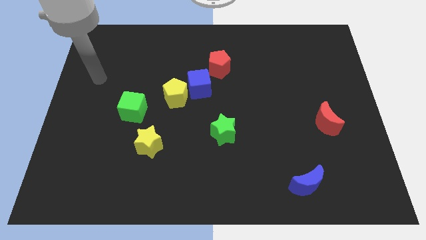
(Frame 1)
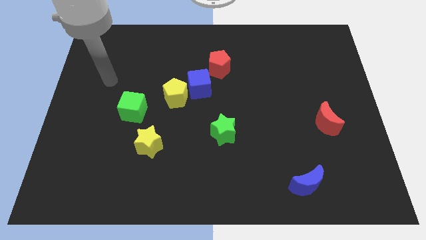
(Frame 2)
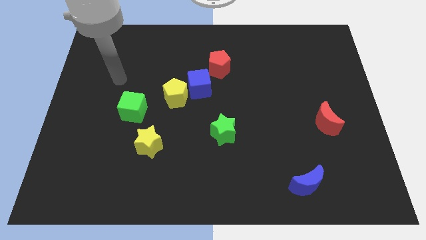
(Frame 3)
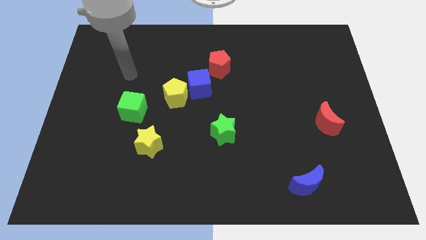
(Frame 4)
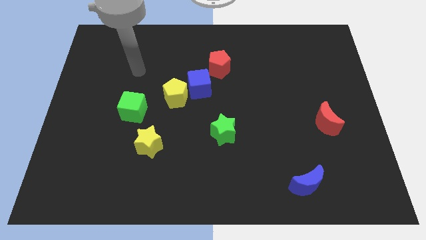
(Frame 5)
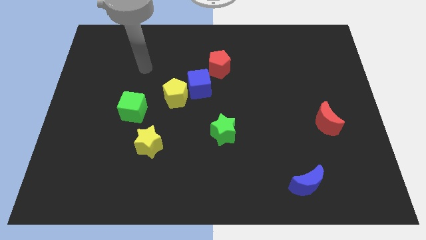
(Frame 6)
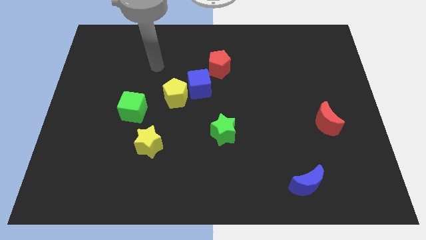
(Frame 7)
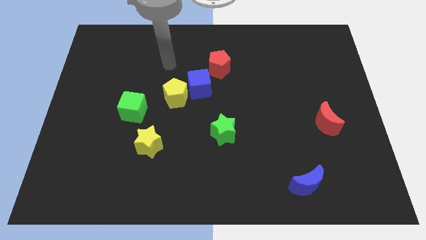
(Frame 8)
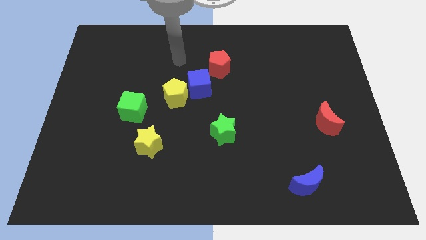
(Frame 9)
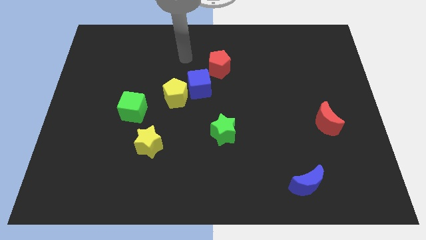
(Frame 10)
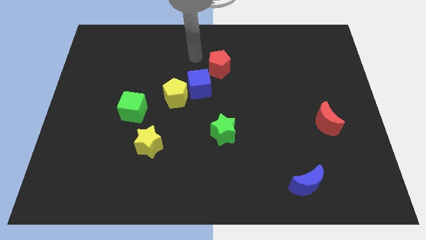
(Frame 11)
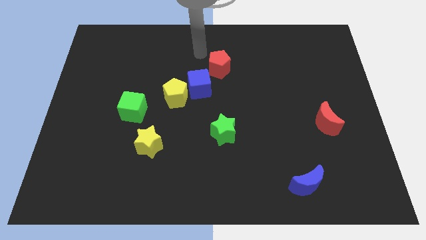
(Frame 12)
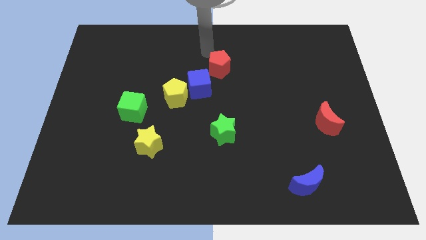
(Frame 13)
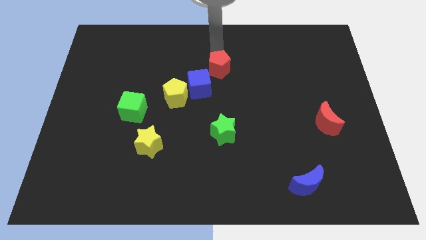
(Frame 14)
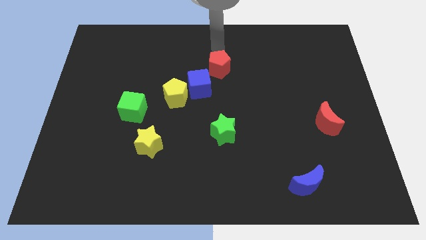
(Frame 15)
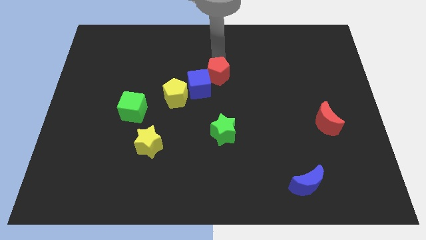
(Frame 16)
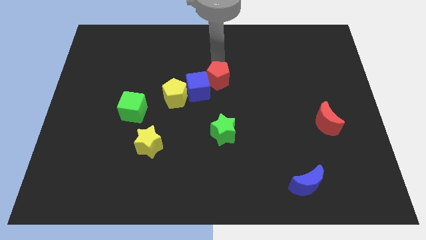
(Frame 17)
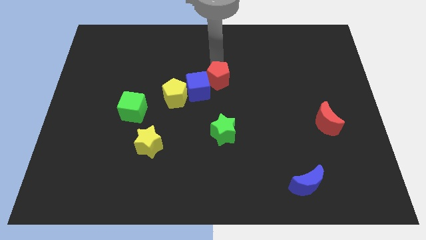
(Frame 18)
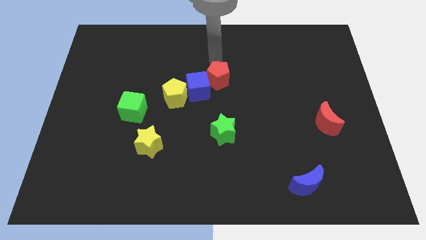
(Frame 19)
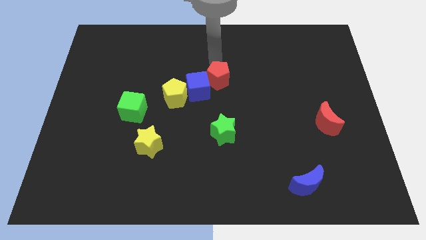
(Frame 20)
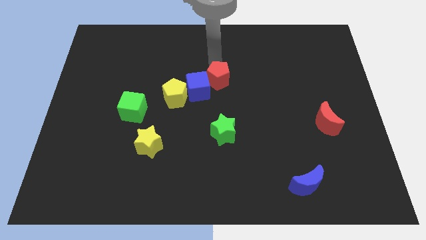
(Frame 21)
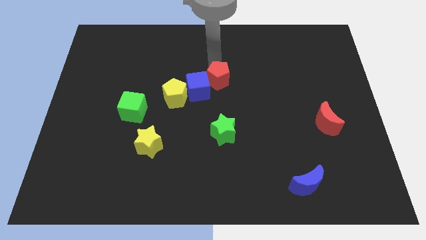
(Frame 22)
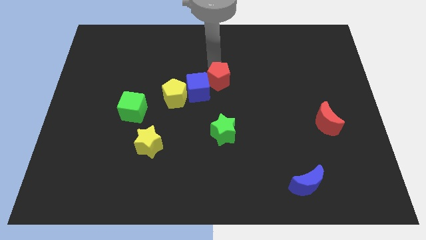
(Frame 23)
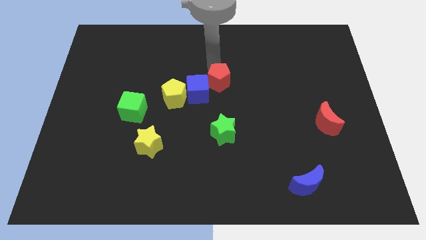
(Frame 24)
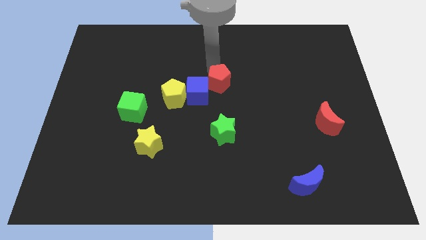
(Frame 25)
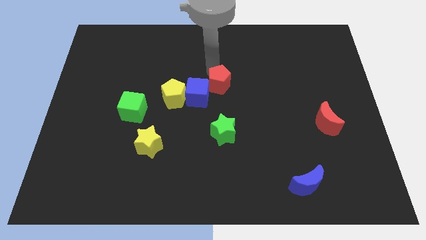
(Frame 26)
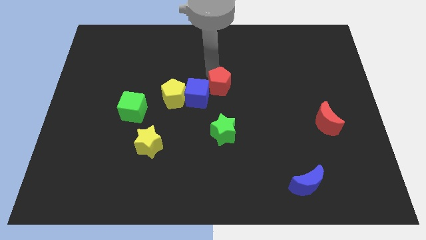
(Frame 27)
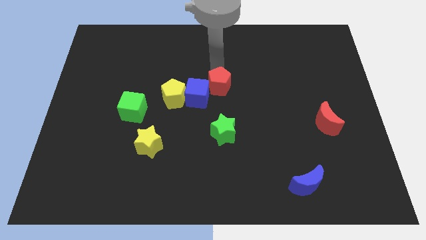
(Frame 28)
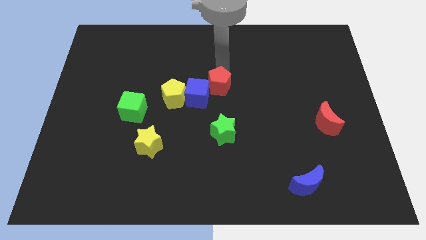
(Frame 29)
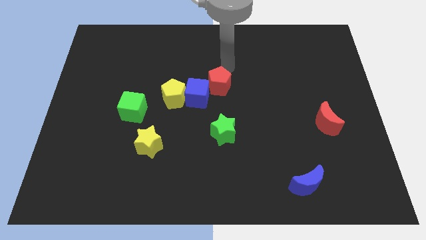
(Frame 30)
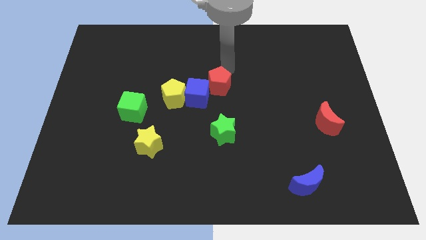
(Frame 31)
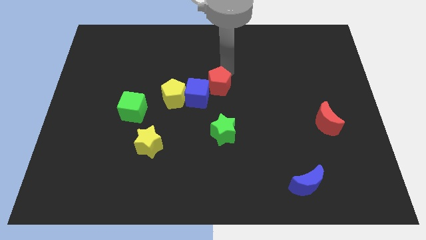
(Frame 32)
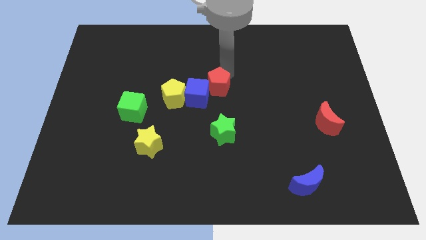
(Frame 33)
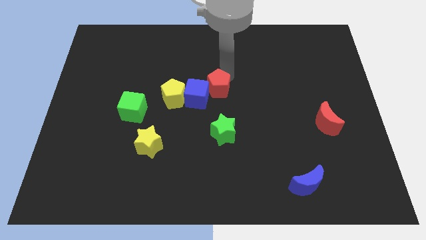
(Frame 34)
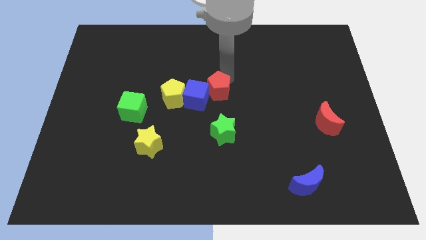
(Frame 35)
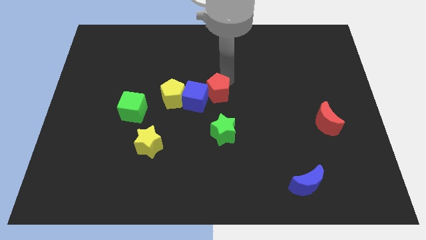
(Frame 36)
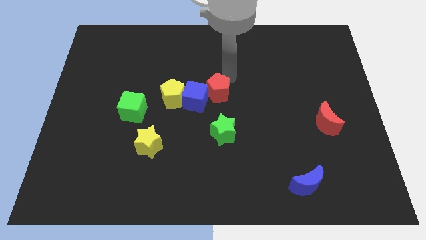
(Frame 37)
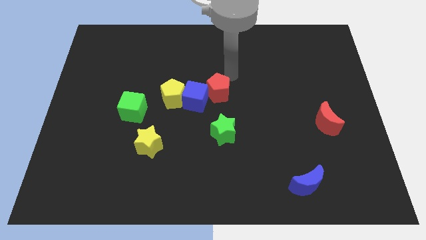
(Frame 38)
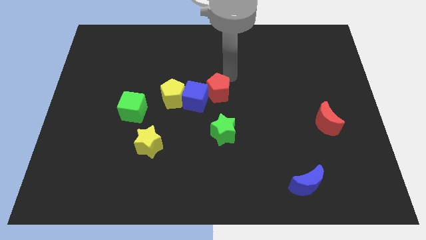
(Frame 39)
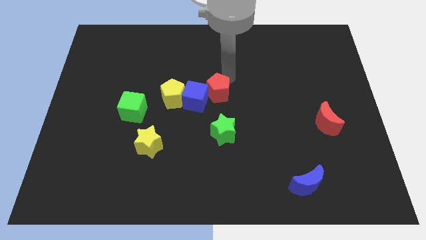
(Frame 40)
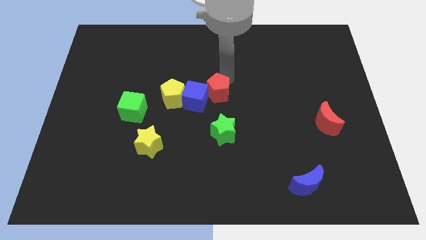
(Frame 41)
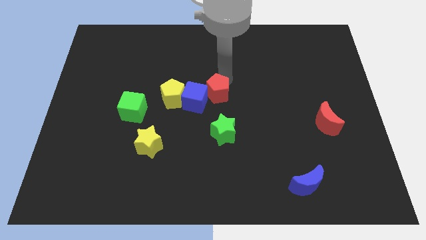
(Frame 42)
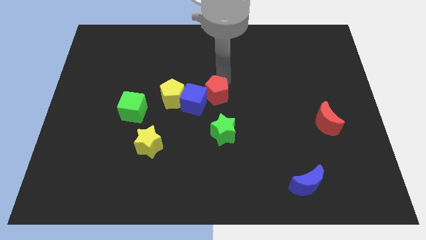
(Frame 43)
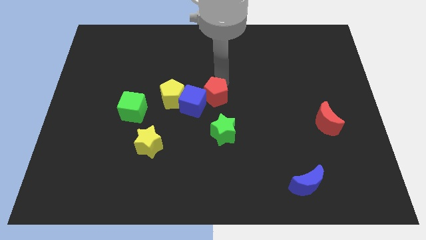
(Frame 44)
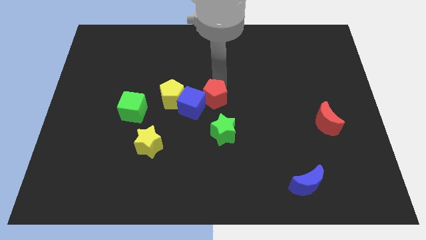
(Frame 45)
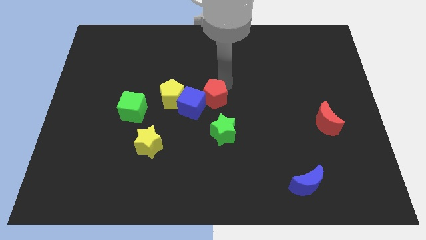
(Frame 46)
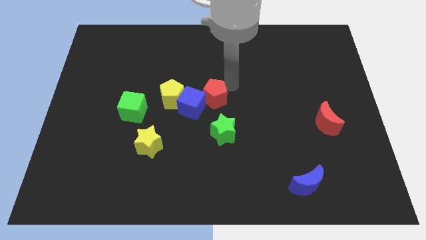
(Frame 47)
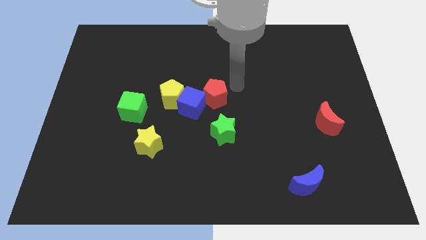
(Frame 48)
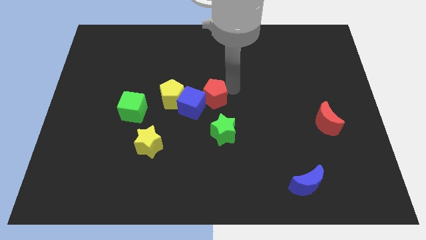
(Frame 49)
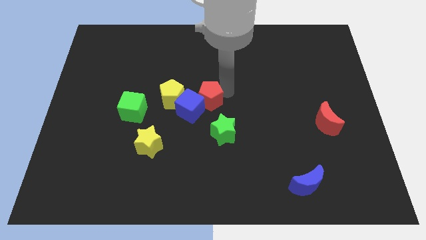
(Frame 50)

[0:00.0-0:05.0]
slide the red pentagon a bit diagonally down and to the left

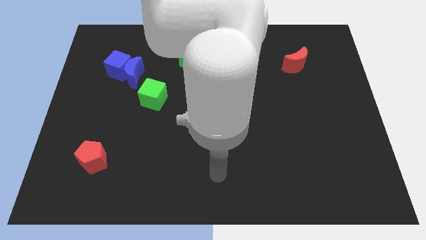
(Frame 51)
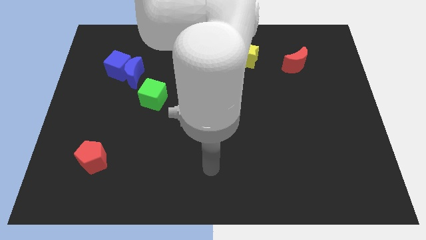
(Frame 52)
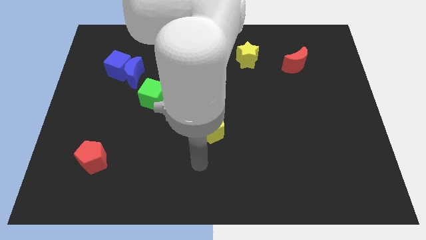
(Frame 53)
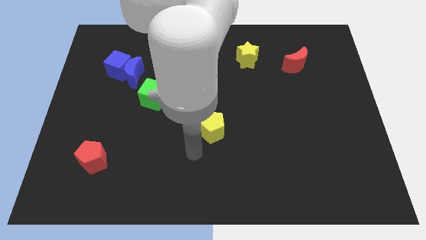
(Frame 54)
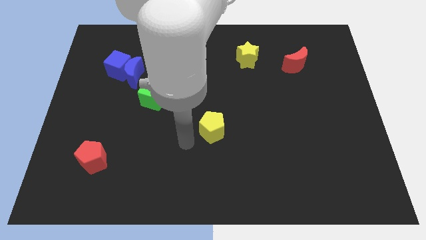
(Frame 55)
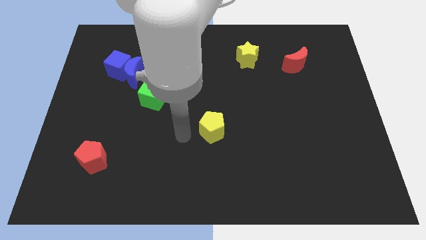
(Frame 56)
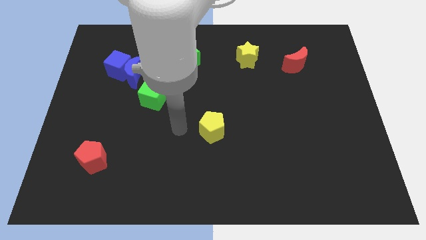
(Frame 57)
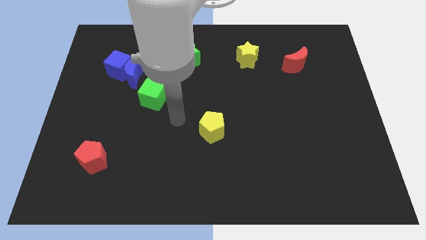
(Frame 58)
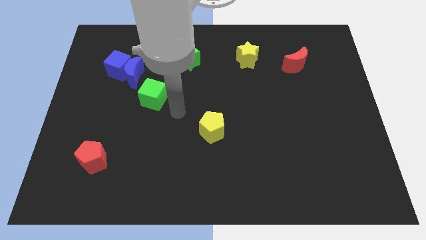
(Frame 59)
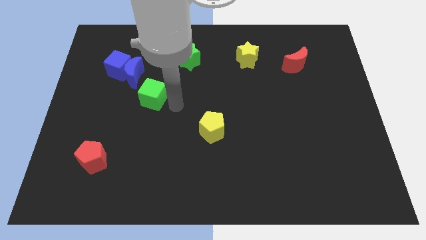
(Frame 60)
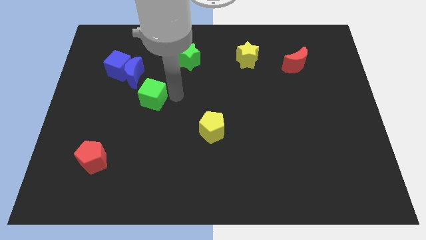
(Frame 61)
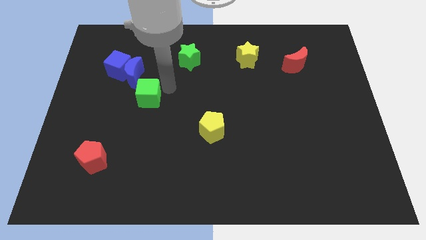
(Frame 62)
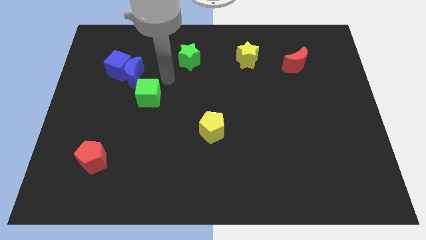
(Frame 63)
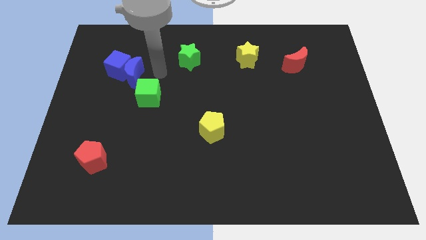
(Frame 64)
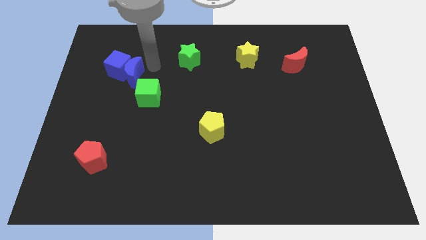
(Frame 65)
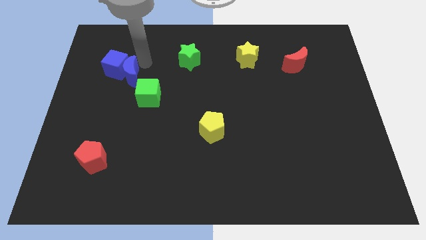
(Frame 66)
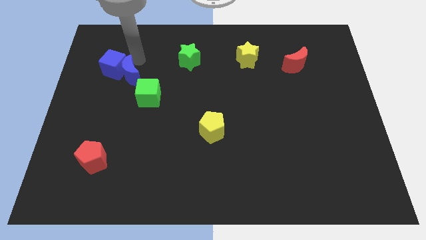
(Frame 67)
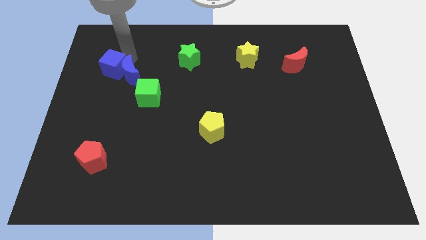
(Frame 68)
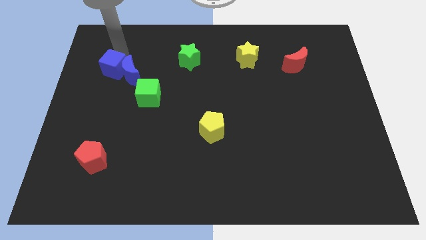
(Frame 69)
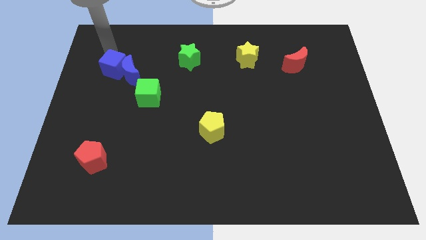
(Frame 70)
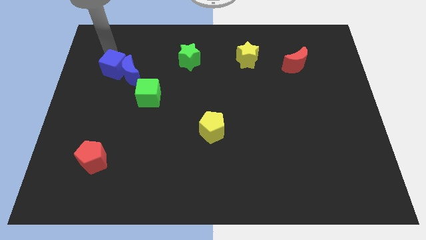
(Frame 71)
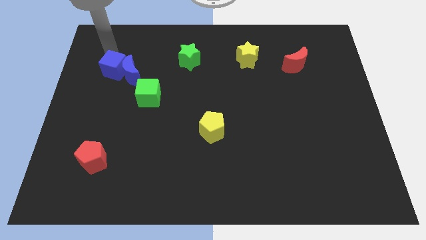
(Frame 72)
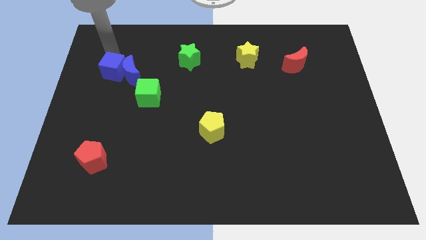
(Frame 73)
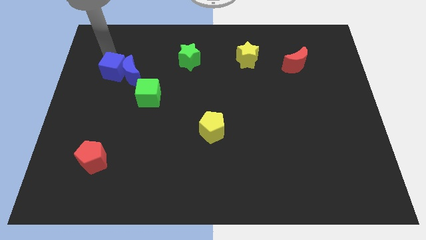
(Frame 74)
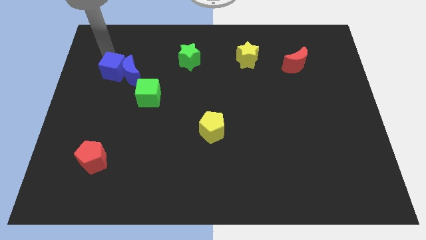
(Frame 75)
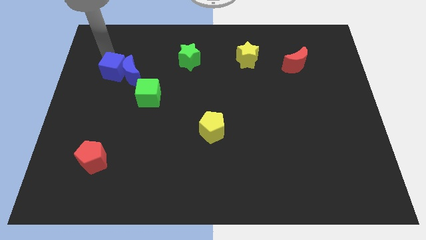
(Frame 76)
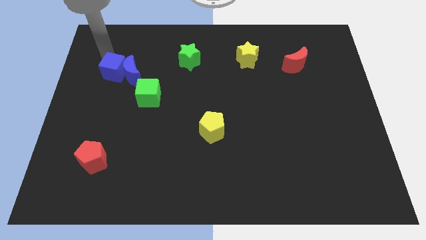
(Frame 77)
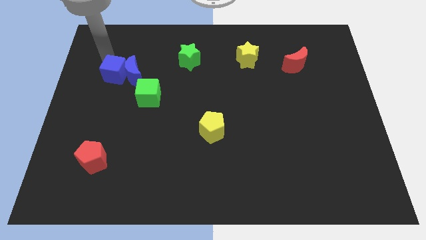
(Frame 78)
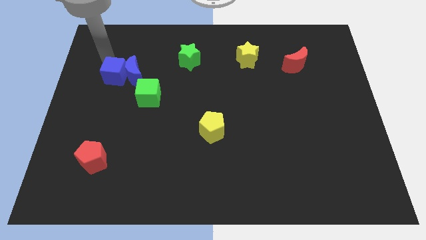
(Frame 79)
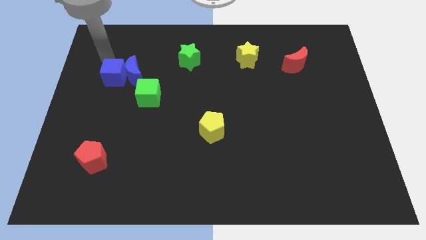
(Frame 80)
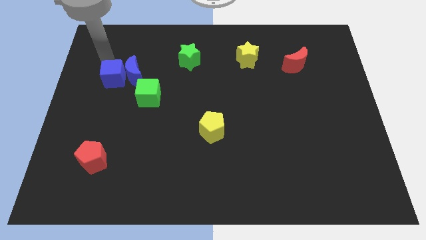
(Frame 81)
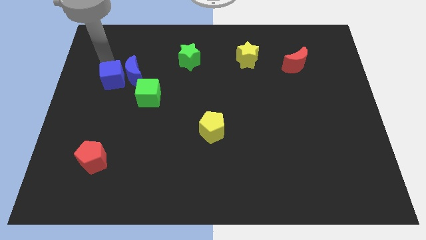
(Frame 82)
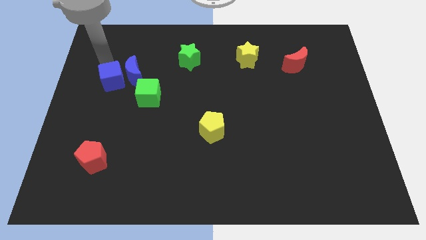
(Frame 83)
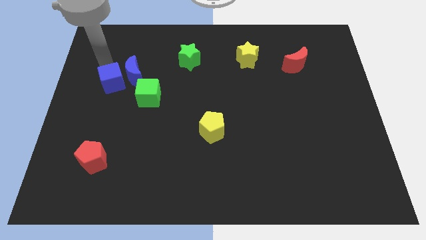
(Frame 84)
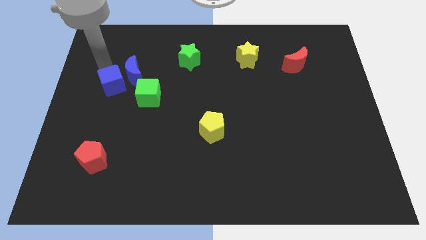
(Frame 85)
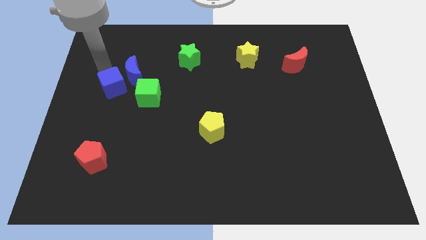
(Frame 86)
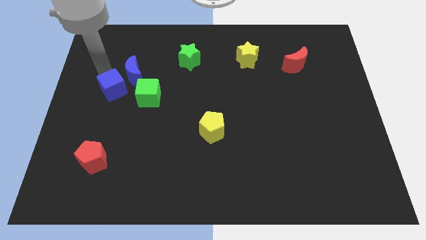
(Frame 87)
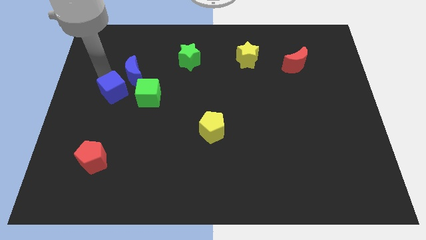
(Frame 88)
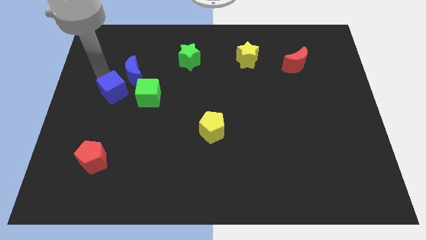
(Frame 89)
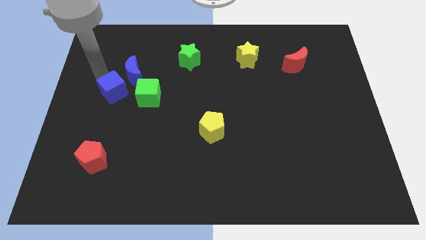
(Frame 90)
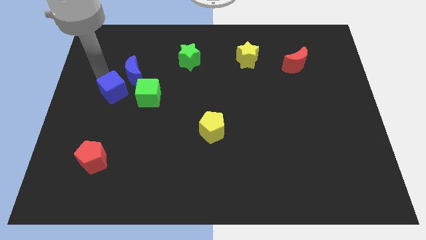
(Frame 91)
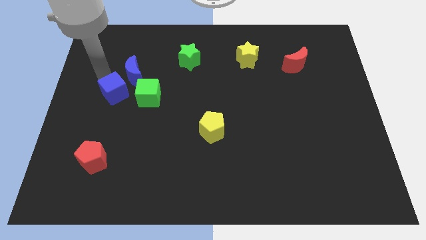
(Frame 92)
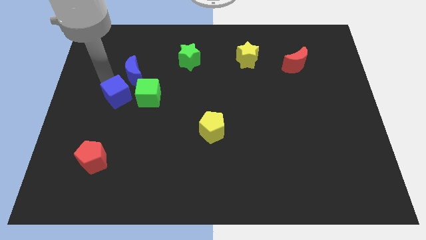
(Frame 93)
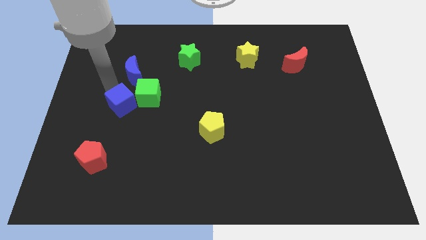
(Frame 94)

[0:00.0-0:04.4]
slide the blue cube down and right diagonally slightly
